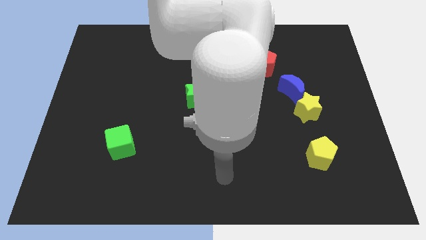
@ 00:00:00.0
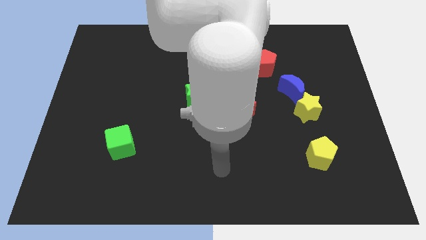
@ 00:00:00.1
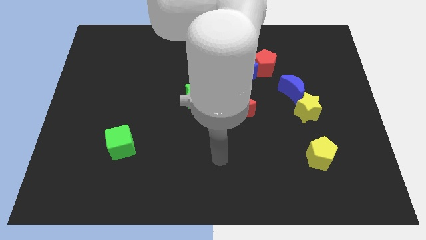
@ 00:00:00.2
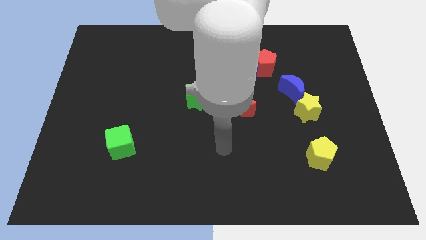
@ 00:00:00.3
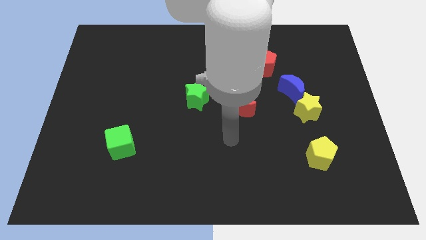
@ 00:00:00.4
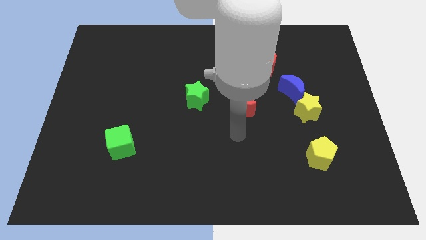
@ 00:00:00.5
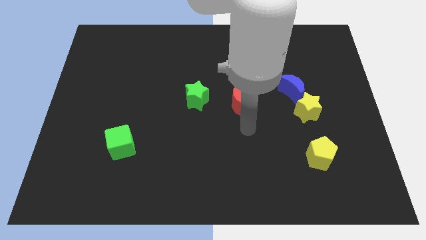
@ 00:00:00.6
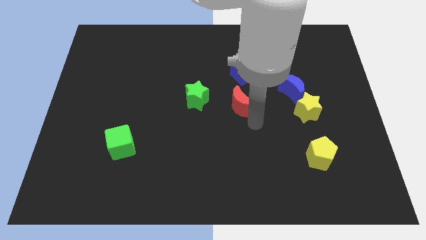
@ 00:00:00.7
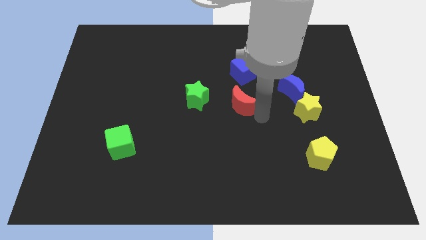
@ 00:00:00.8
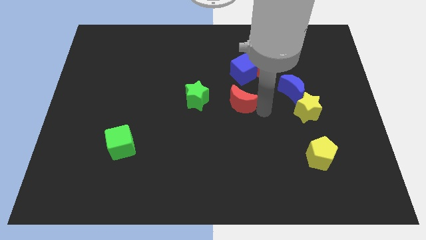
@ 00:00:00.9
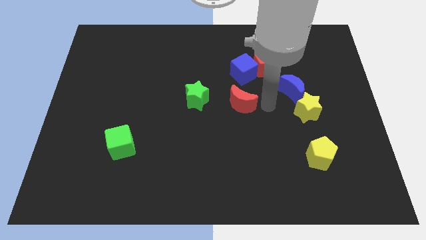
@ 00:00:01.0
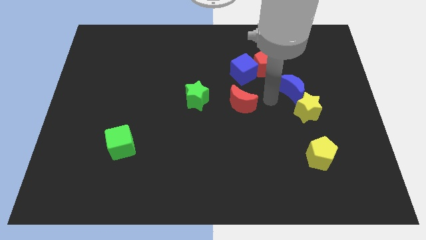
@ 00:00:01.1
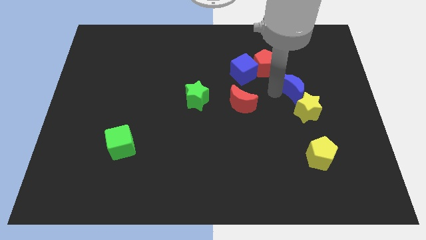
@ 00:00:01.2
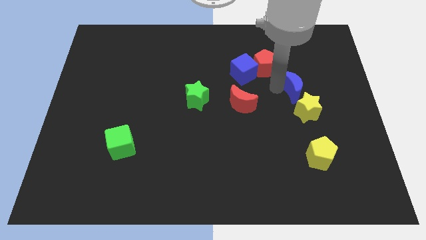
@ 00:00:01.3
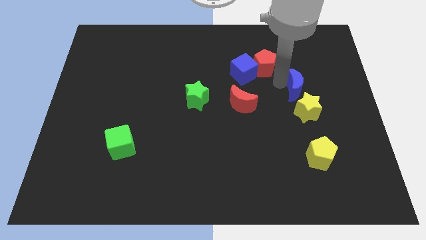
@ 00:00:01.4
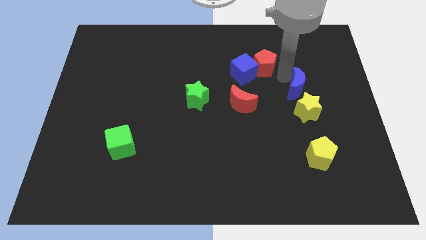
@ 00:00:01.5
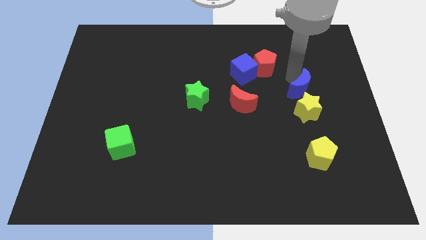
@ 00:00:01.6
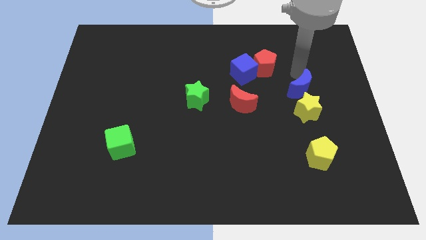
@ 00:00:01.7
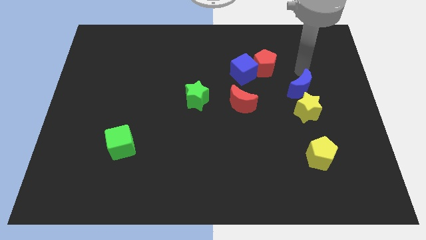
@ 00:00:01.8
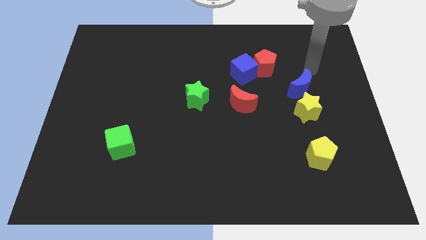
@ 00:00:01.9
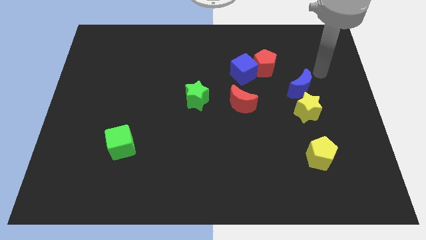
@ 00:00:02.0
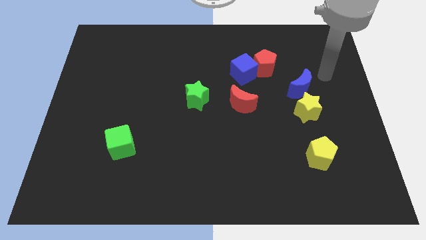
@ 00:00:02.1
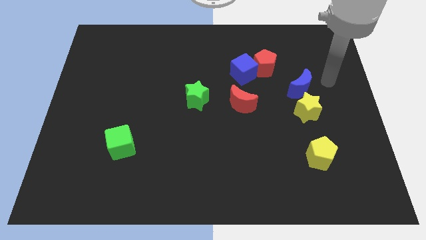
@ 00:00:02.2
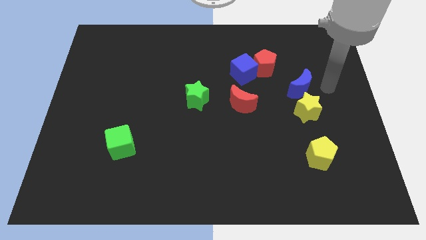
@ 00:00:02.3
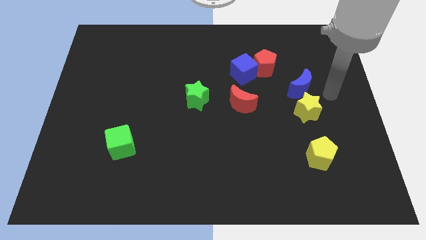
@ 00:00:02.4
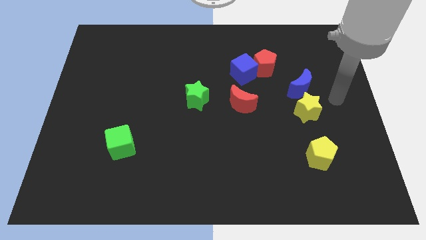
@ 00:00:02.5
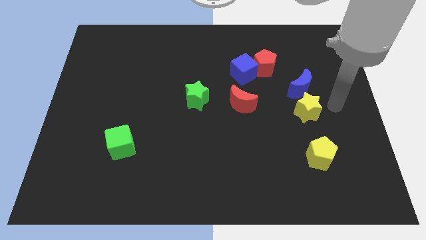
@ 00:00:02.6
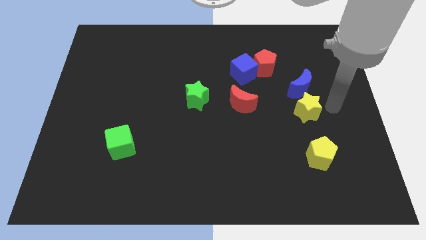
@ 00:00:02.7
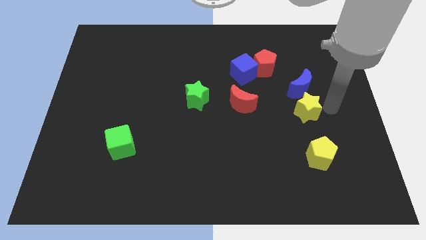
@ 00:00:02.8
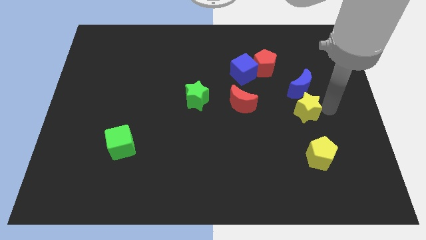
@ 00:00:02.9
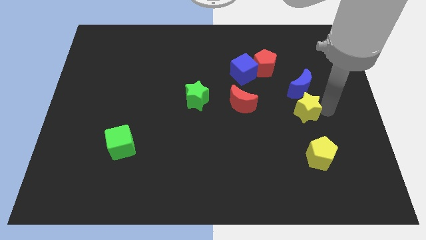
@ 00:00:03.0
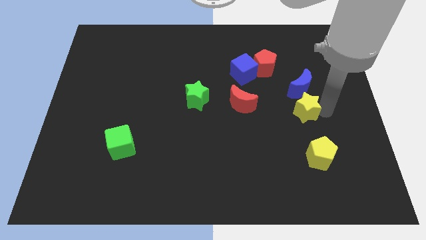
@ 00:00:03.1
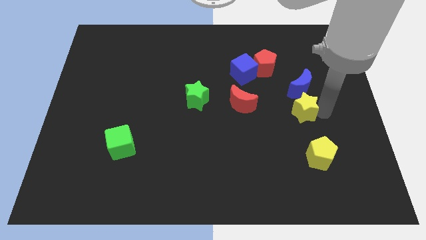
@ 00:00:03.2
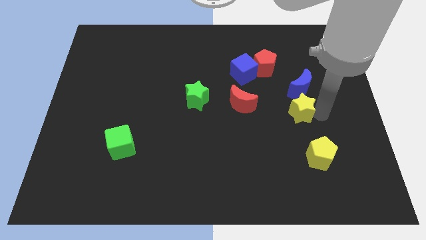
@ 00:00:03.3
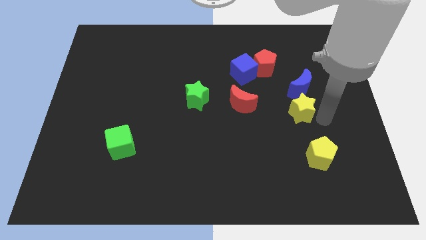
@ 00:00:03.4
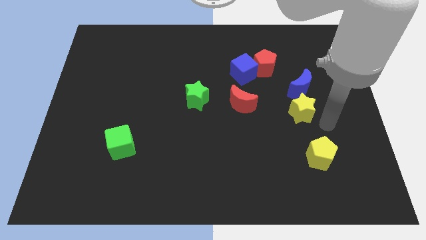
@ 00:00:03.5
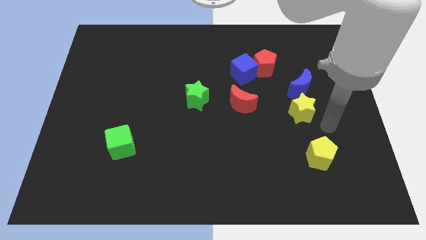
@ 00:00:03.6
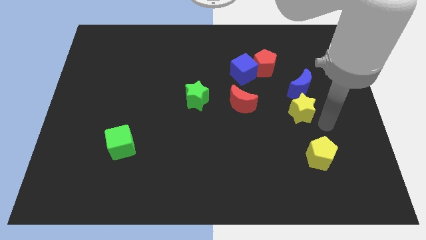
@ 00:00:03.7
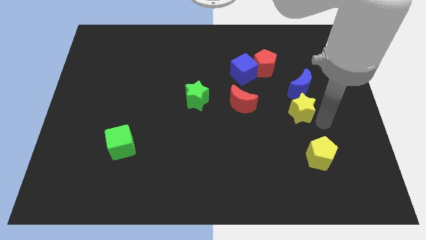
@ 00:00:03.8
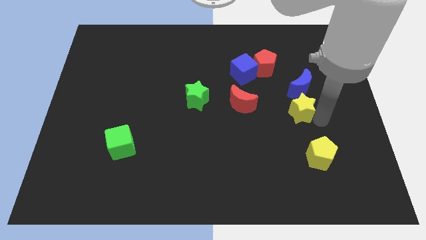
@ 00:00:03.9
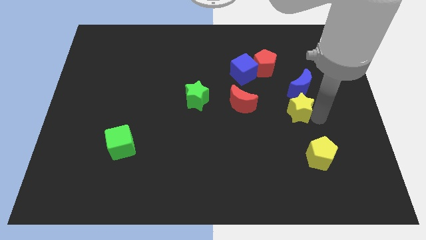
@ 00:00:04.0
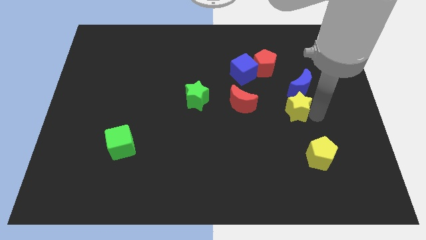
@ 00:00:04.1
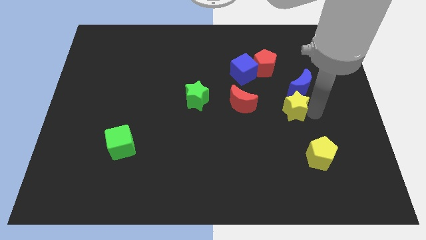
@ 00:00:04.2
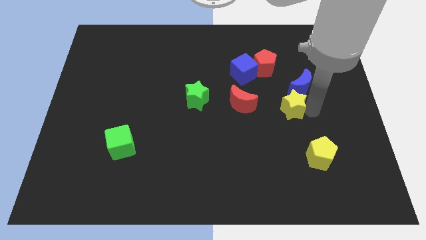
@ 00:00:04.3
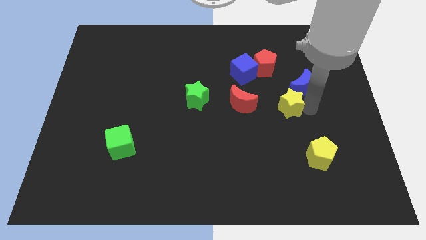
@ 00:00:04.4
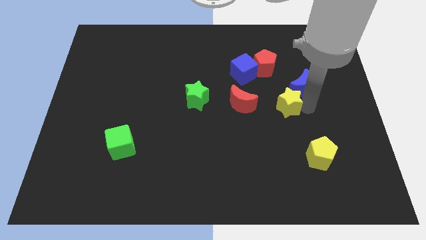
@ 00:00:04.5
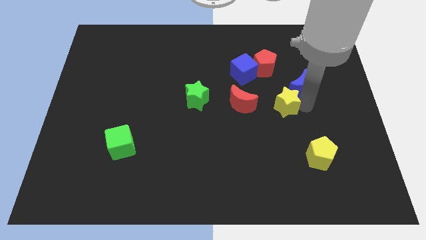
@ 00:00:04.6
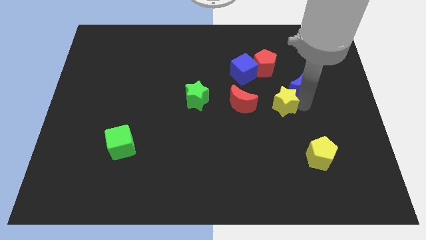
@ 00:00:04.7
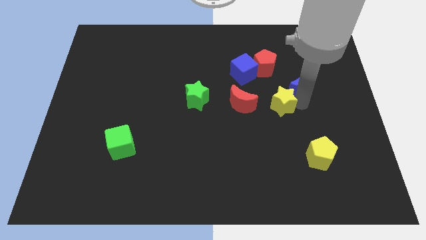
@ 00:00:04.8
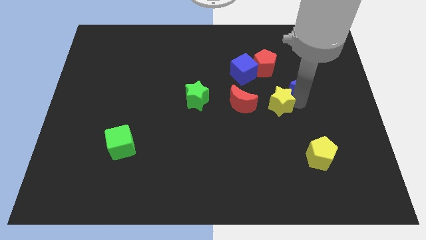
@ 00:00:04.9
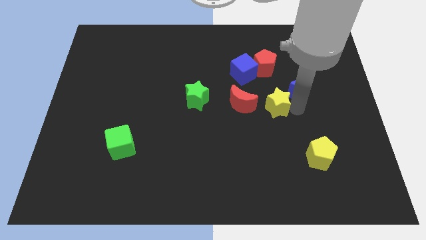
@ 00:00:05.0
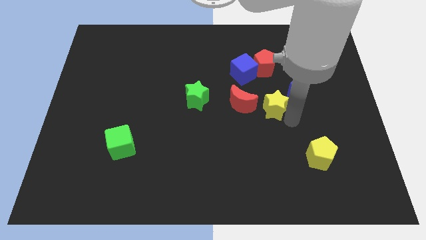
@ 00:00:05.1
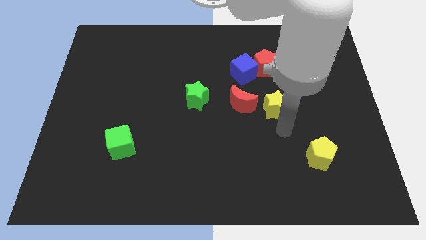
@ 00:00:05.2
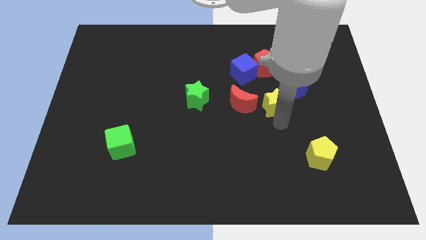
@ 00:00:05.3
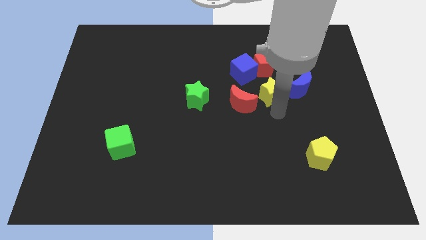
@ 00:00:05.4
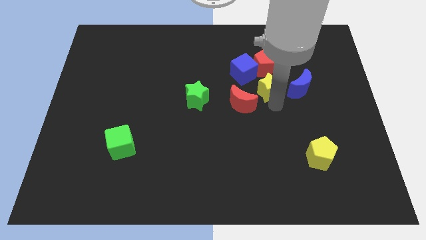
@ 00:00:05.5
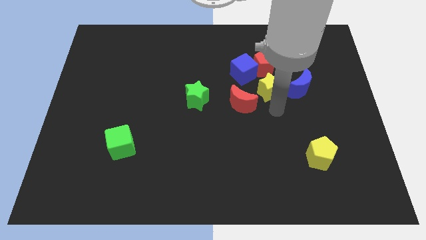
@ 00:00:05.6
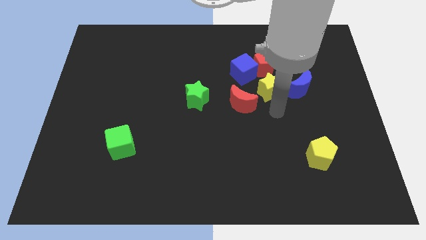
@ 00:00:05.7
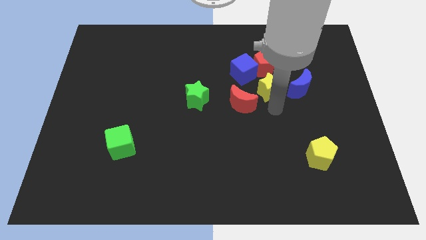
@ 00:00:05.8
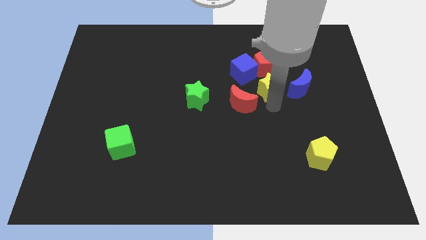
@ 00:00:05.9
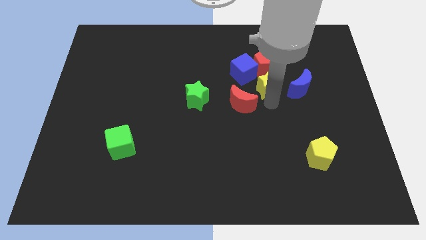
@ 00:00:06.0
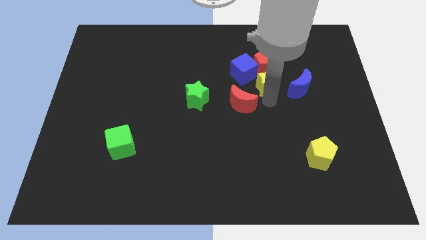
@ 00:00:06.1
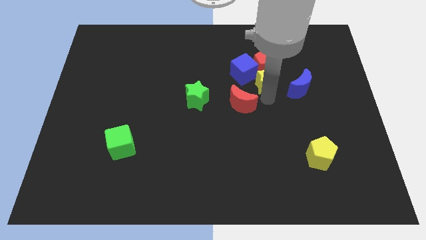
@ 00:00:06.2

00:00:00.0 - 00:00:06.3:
put the yellow star to the red pentagon

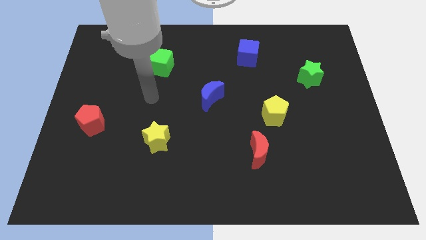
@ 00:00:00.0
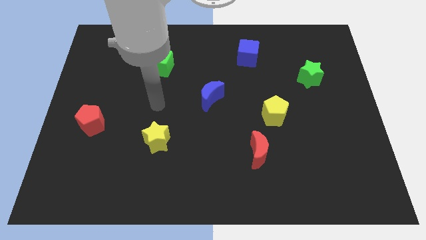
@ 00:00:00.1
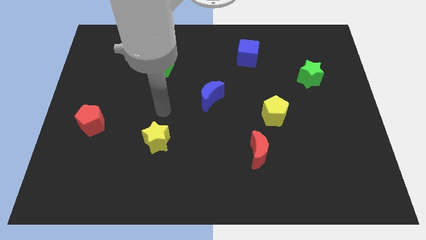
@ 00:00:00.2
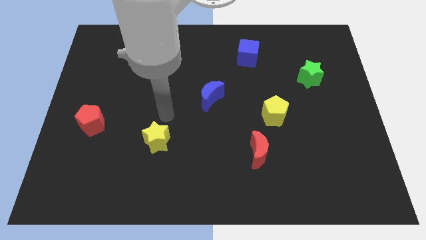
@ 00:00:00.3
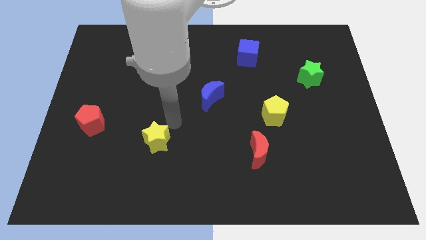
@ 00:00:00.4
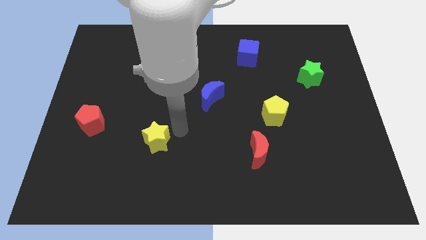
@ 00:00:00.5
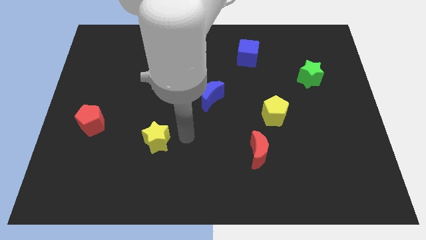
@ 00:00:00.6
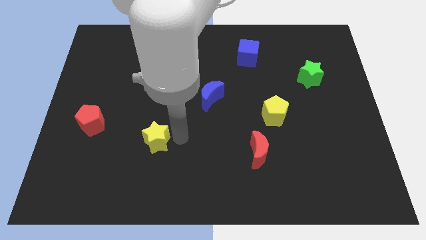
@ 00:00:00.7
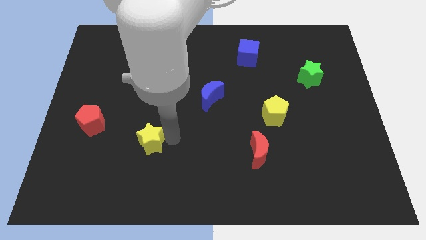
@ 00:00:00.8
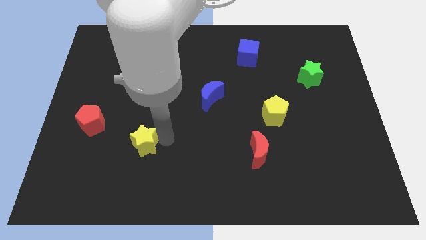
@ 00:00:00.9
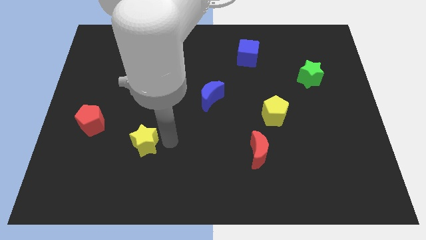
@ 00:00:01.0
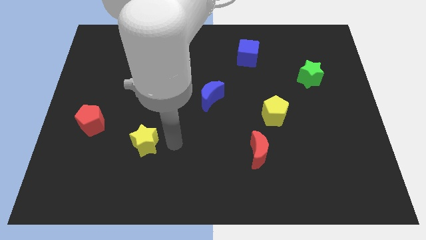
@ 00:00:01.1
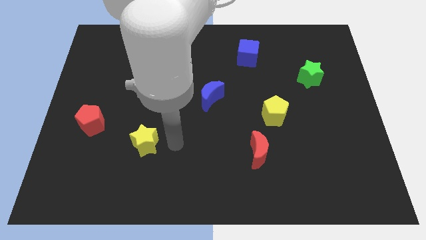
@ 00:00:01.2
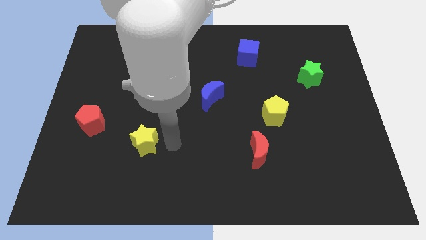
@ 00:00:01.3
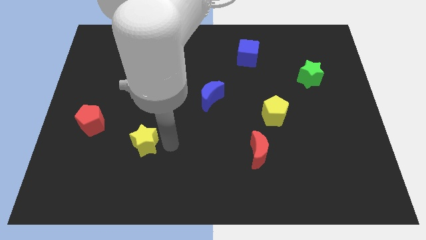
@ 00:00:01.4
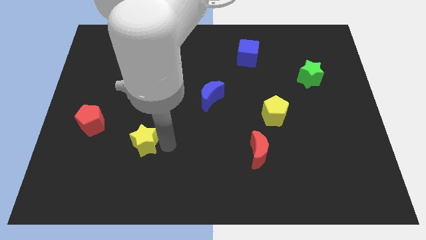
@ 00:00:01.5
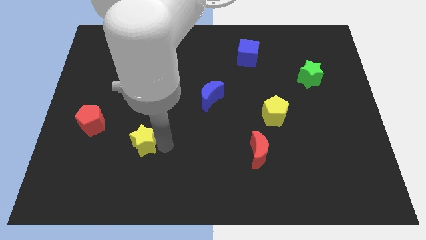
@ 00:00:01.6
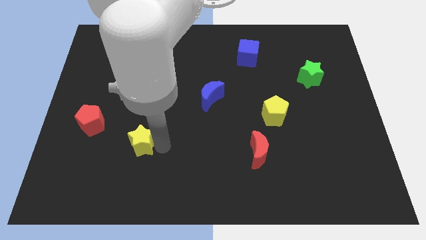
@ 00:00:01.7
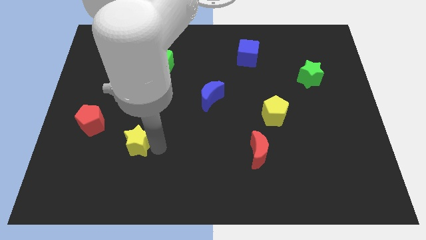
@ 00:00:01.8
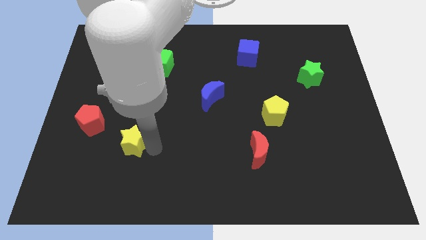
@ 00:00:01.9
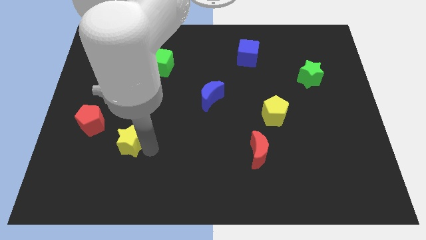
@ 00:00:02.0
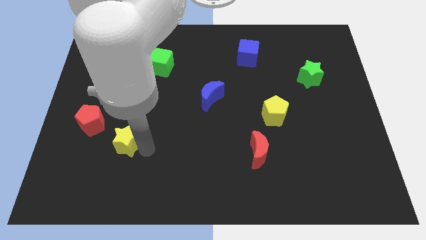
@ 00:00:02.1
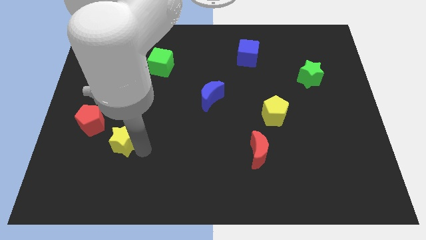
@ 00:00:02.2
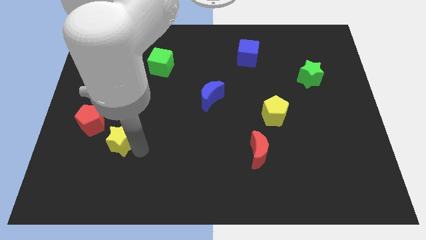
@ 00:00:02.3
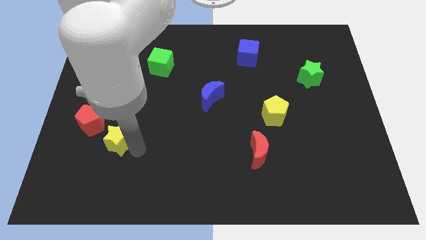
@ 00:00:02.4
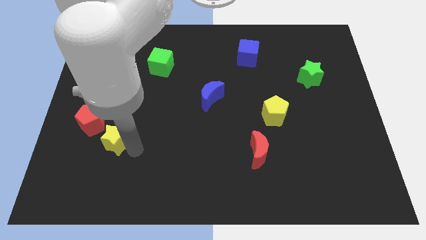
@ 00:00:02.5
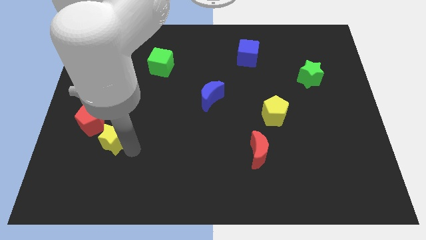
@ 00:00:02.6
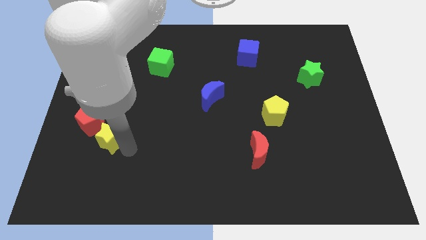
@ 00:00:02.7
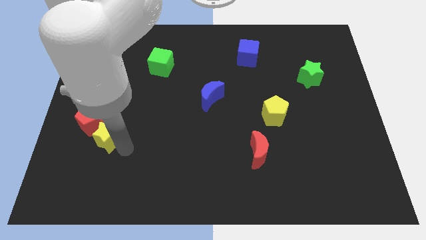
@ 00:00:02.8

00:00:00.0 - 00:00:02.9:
push the yellow star towards the red pentagon
